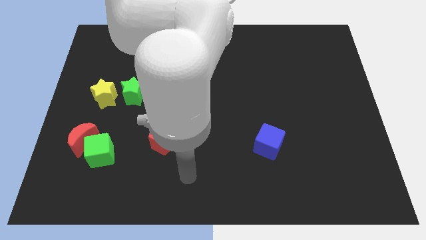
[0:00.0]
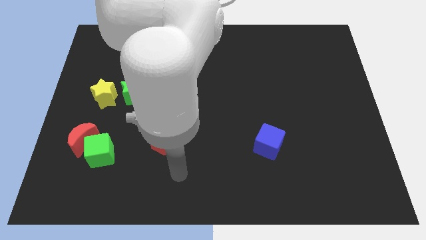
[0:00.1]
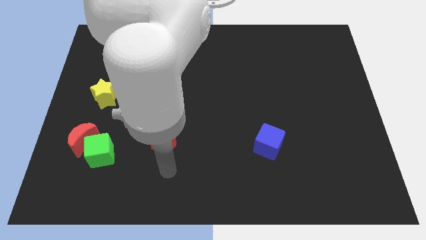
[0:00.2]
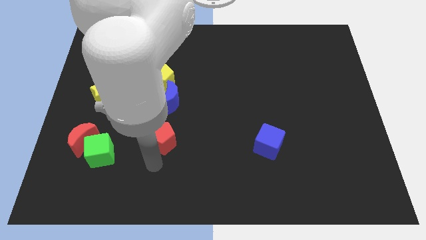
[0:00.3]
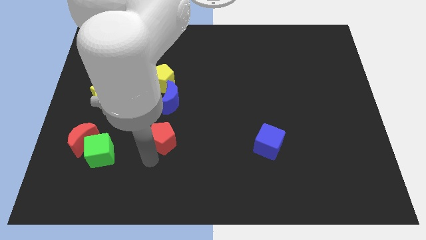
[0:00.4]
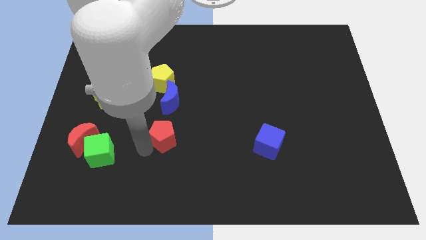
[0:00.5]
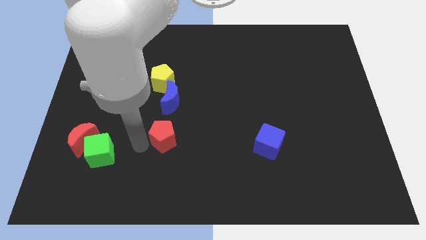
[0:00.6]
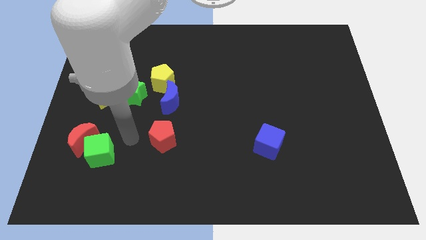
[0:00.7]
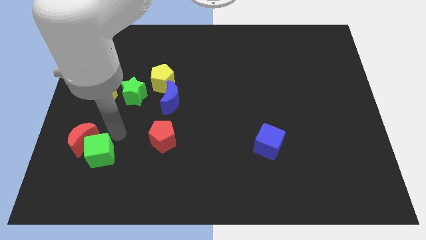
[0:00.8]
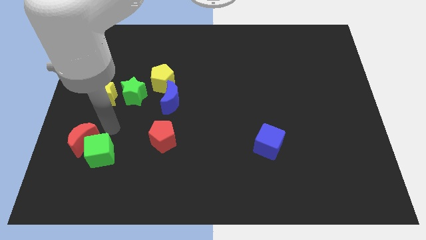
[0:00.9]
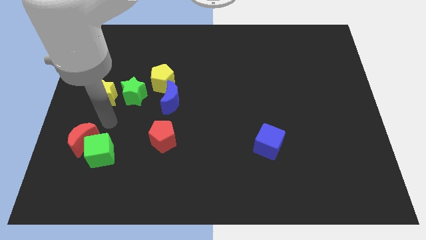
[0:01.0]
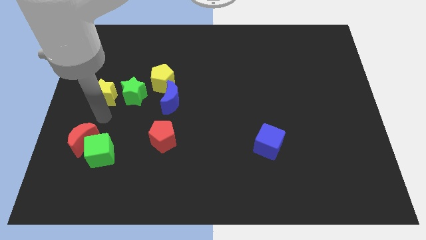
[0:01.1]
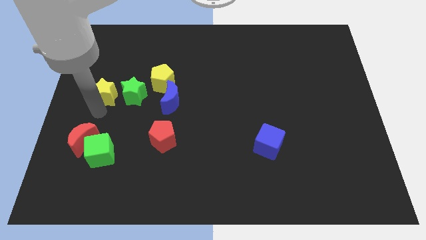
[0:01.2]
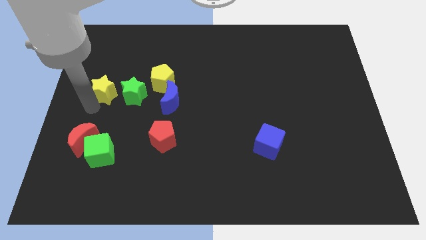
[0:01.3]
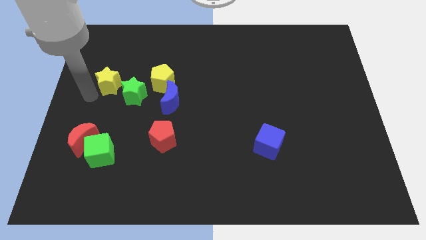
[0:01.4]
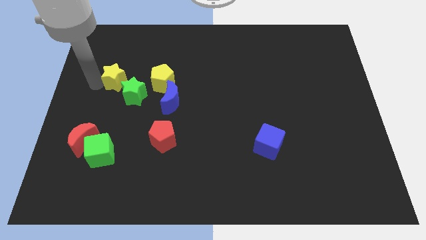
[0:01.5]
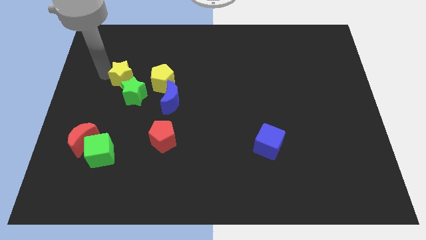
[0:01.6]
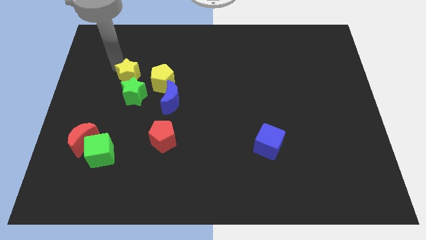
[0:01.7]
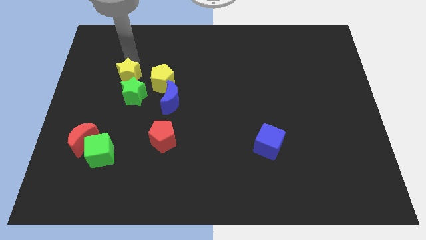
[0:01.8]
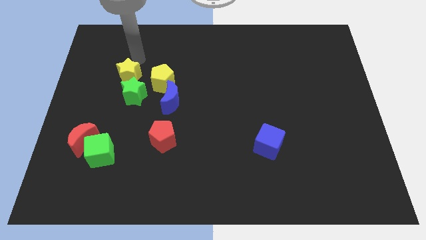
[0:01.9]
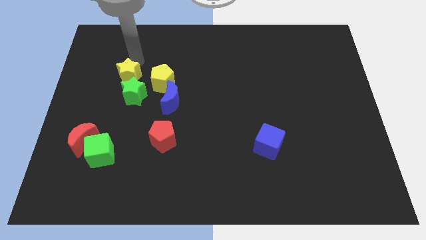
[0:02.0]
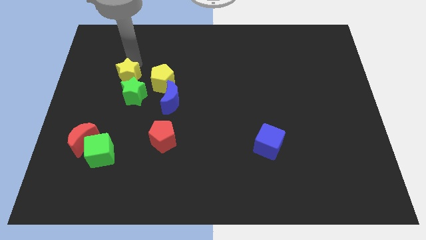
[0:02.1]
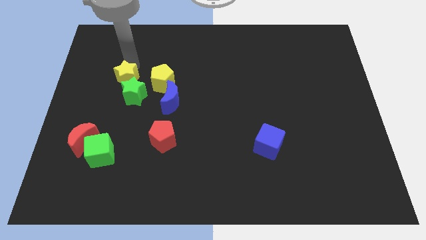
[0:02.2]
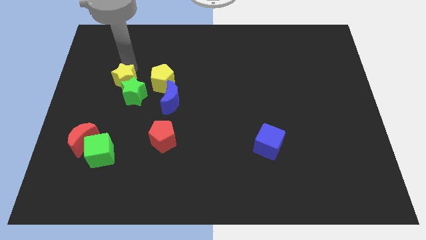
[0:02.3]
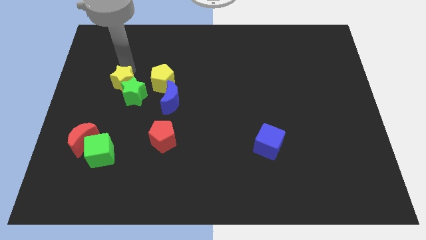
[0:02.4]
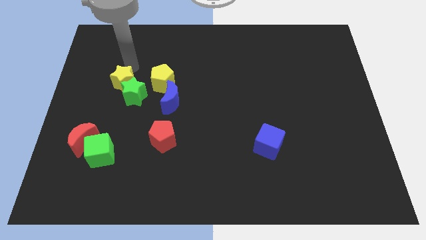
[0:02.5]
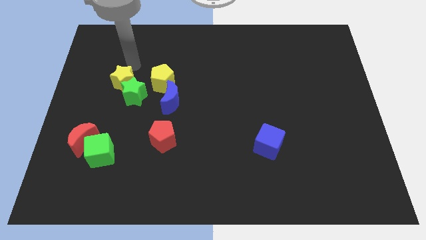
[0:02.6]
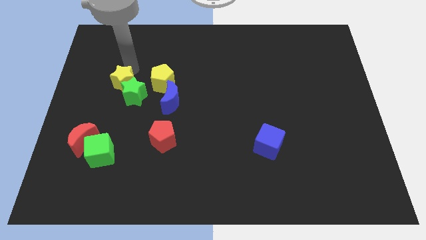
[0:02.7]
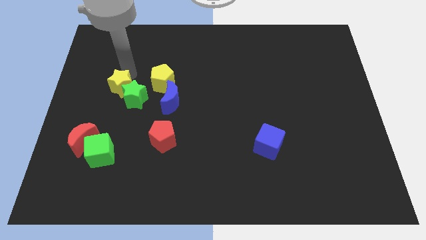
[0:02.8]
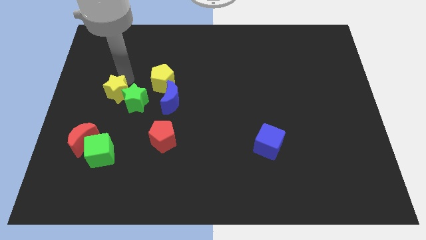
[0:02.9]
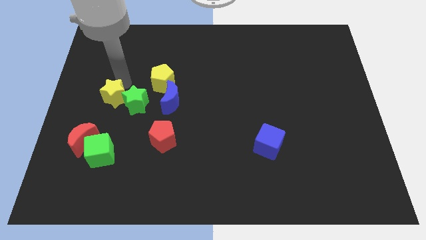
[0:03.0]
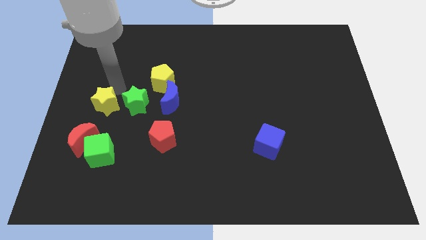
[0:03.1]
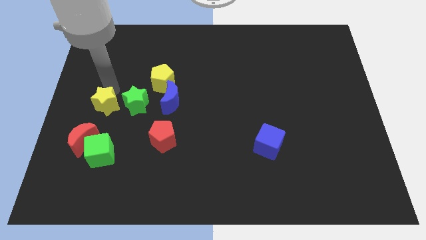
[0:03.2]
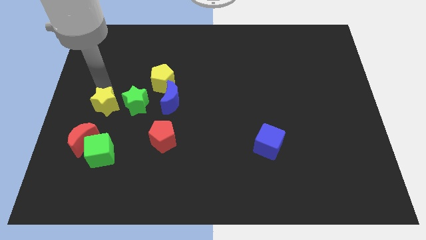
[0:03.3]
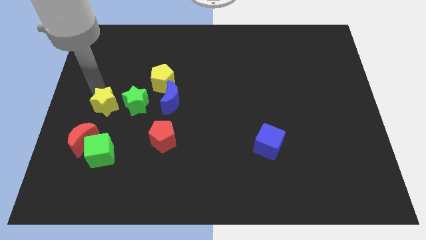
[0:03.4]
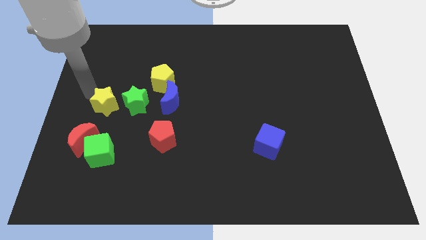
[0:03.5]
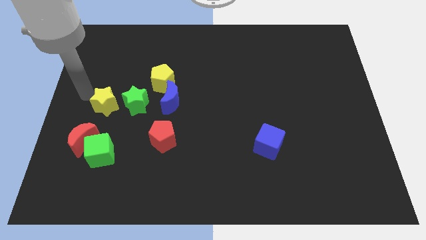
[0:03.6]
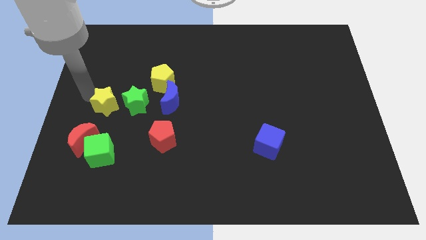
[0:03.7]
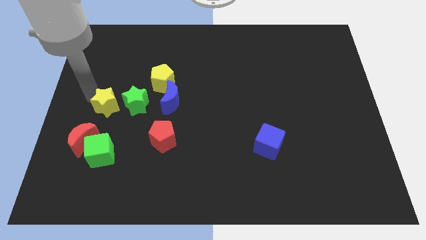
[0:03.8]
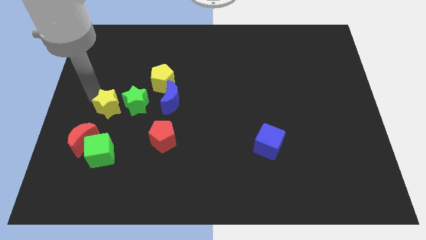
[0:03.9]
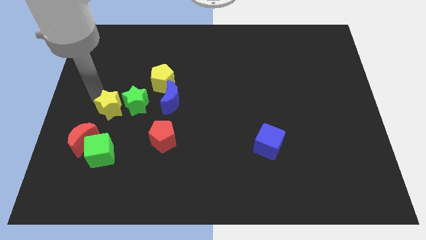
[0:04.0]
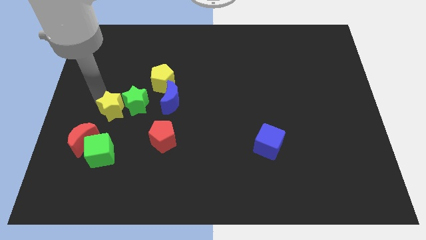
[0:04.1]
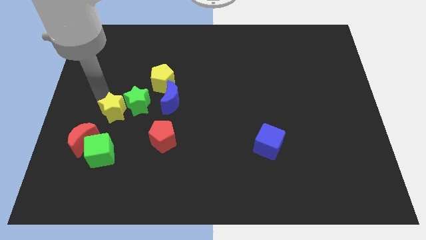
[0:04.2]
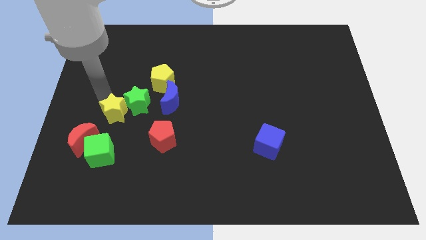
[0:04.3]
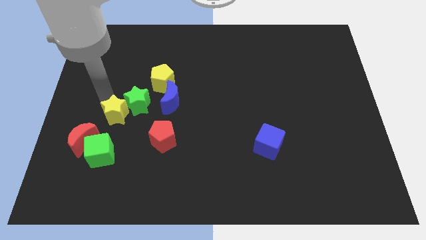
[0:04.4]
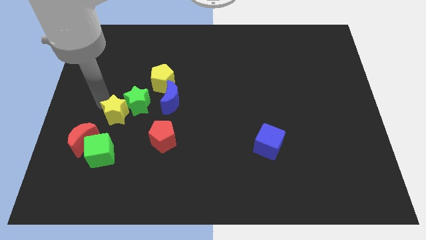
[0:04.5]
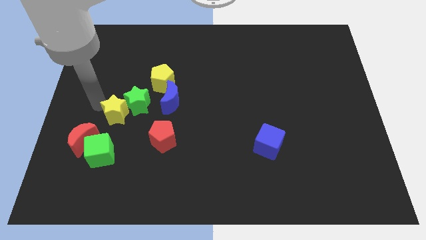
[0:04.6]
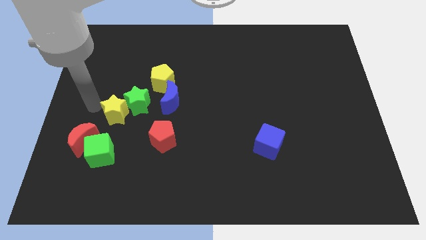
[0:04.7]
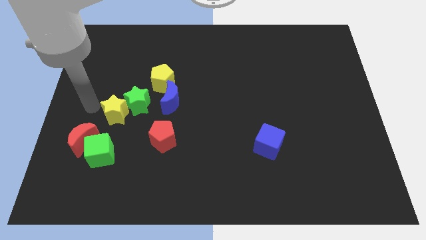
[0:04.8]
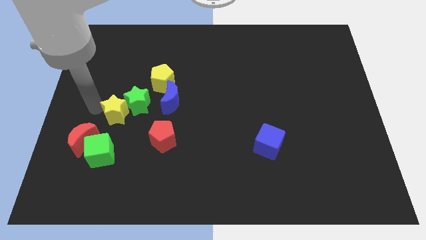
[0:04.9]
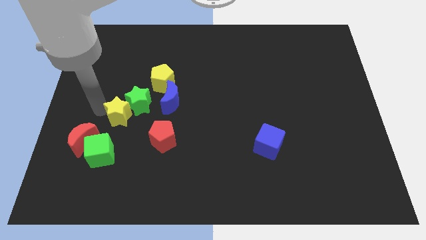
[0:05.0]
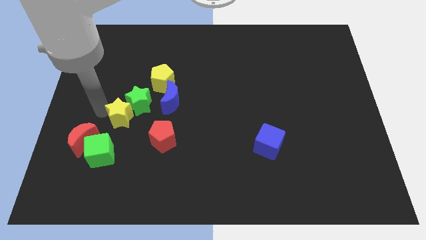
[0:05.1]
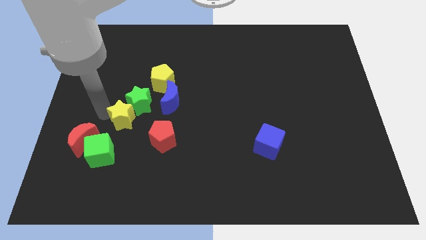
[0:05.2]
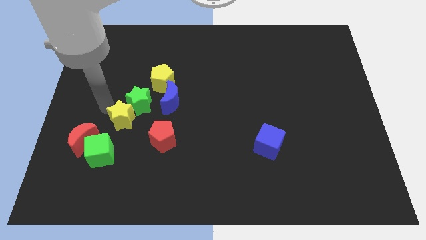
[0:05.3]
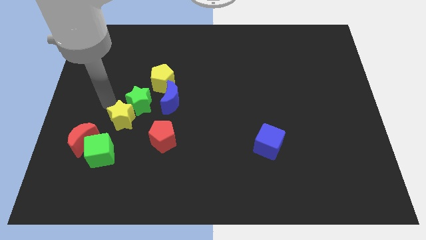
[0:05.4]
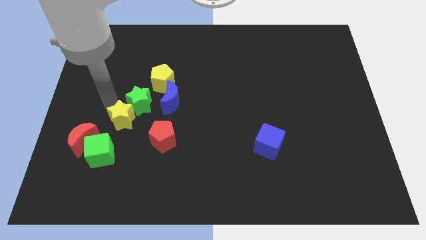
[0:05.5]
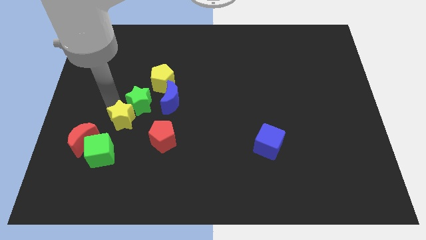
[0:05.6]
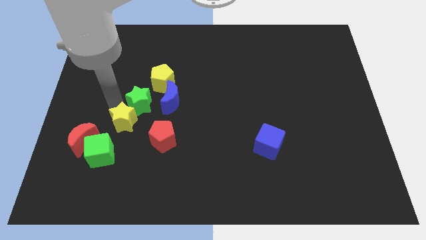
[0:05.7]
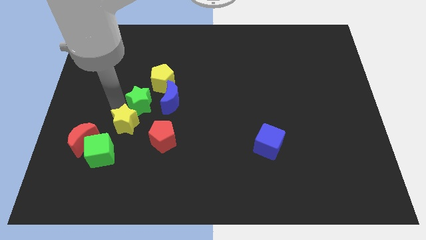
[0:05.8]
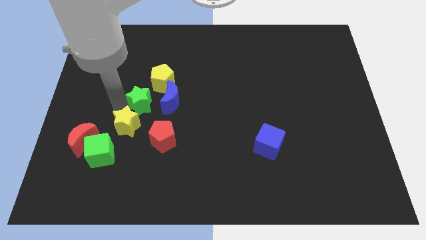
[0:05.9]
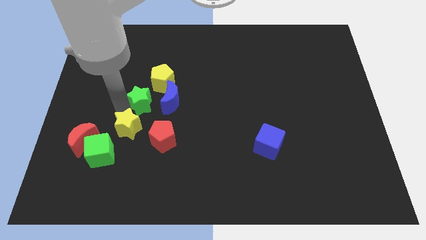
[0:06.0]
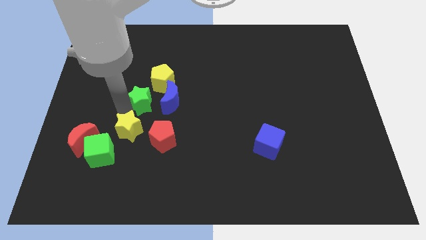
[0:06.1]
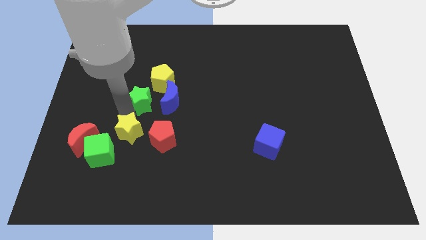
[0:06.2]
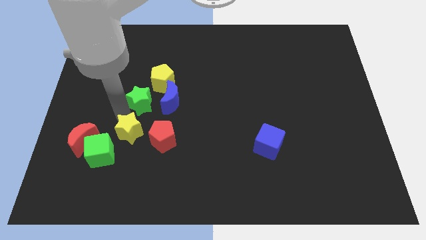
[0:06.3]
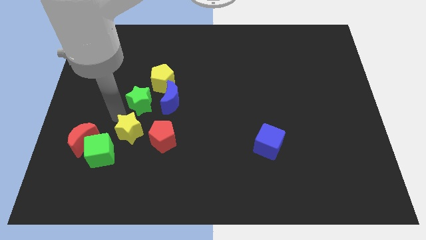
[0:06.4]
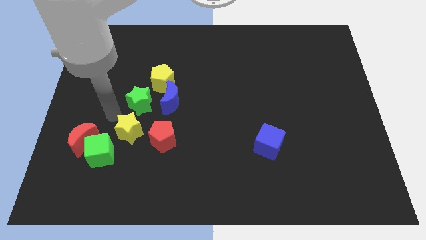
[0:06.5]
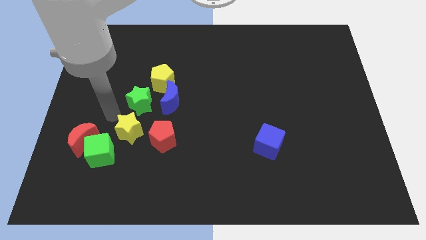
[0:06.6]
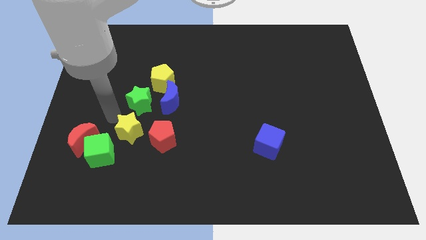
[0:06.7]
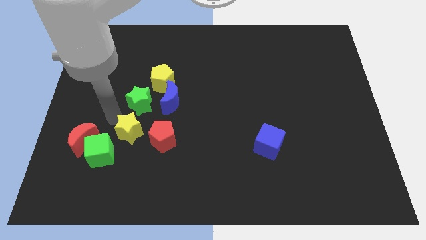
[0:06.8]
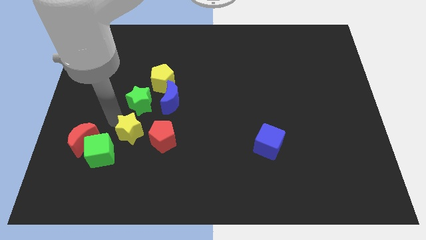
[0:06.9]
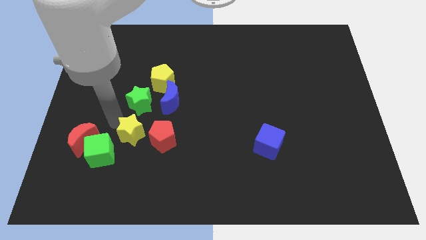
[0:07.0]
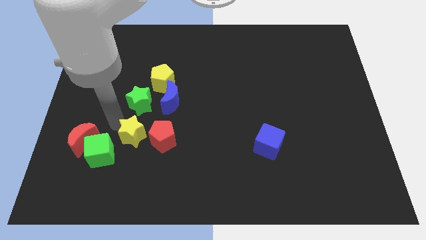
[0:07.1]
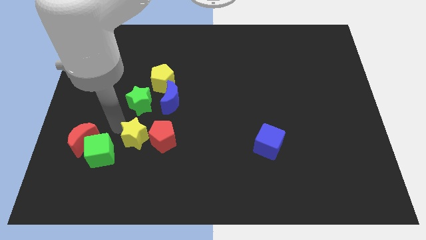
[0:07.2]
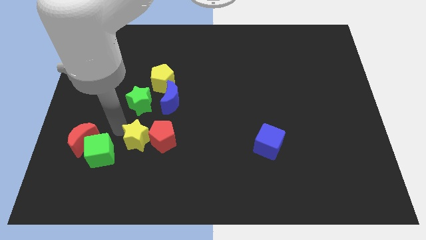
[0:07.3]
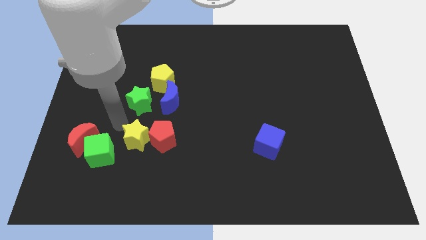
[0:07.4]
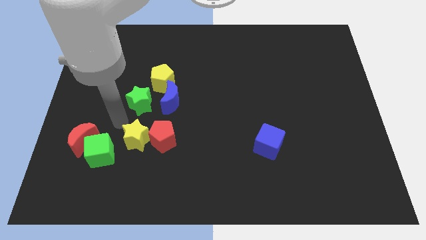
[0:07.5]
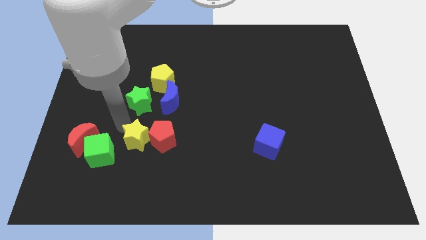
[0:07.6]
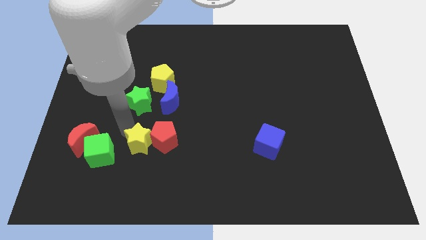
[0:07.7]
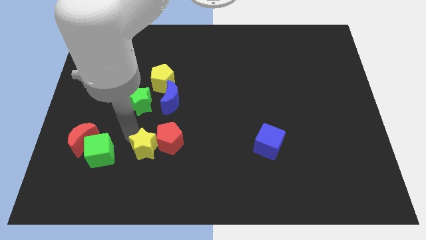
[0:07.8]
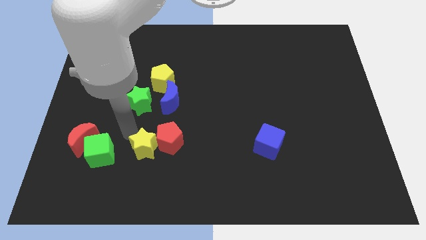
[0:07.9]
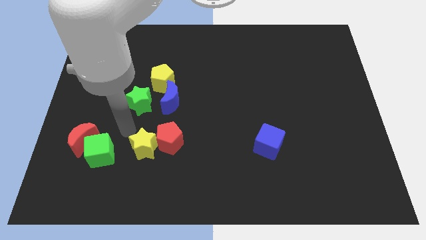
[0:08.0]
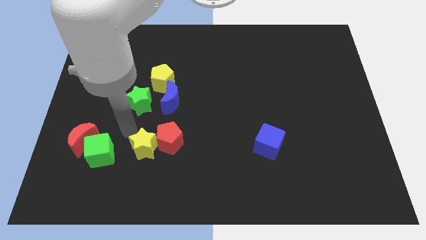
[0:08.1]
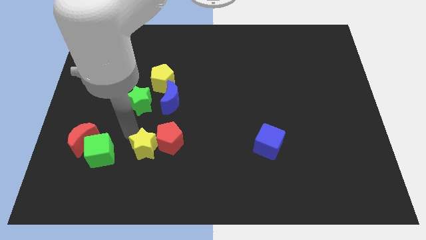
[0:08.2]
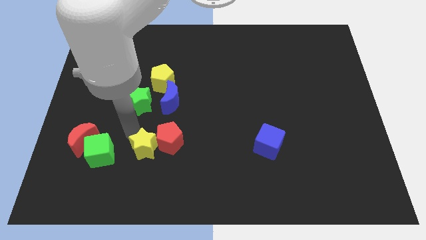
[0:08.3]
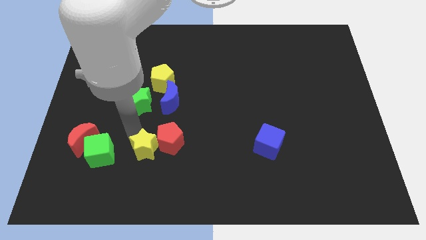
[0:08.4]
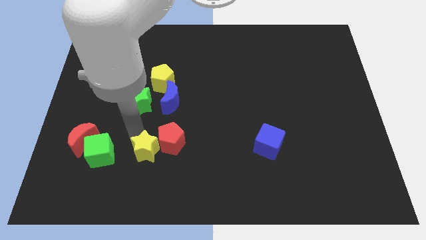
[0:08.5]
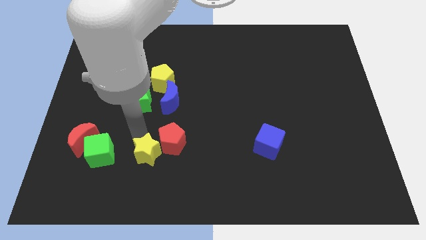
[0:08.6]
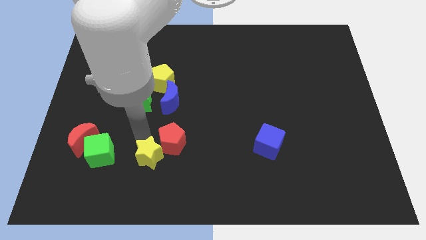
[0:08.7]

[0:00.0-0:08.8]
push the yellow star downwards and then to the right
